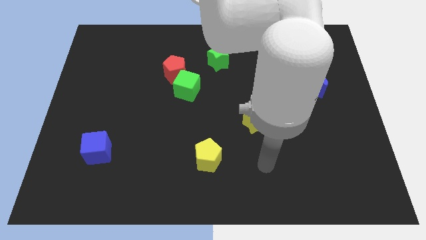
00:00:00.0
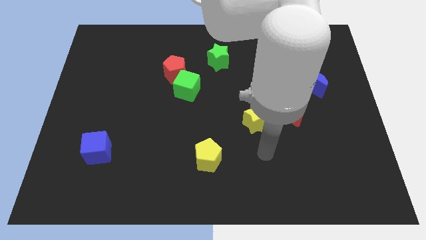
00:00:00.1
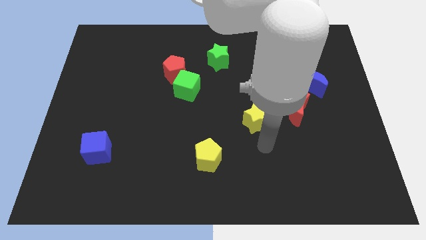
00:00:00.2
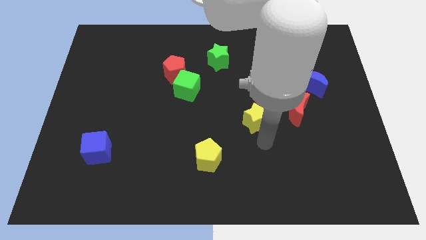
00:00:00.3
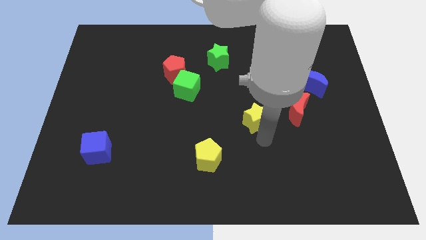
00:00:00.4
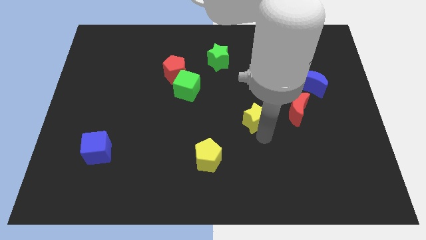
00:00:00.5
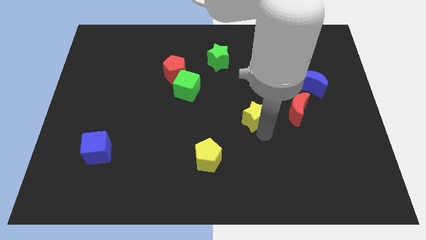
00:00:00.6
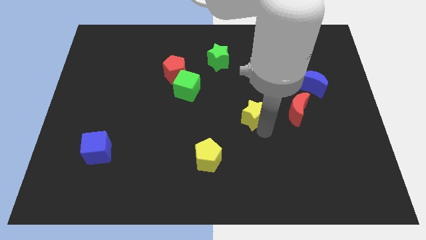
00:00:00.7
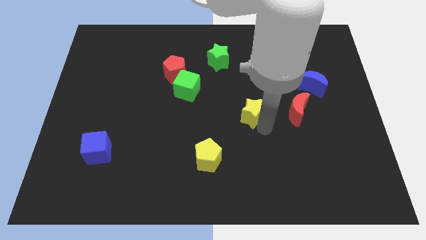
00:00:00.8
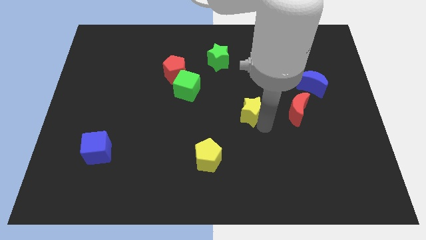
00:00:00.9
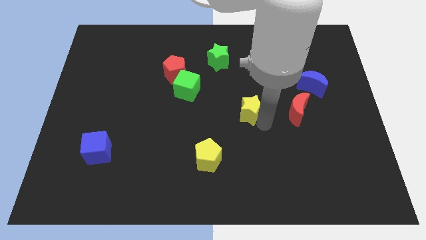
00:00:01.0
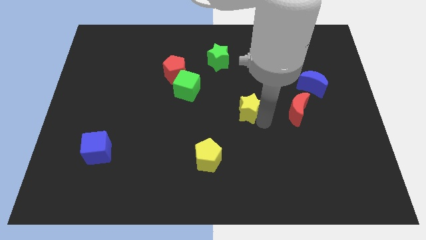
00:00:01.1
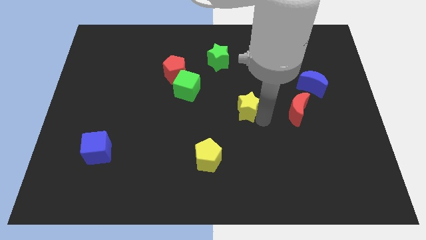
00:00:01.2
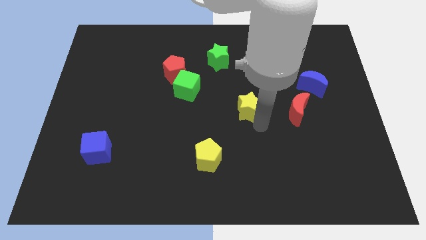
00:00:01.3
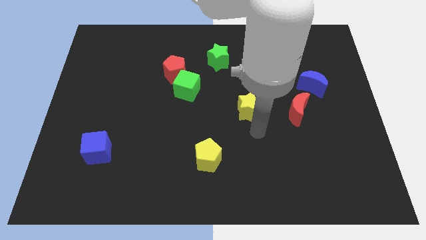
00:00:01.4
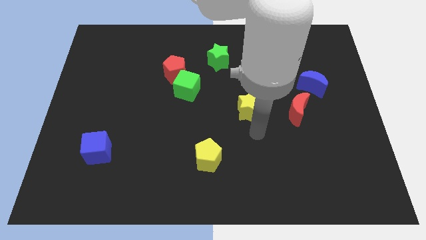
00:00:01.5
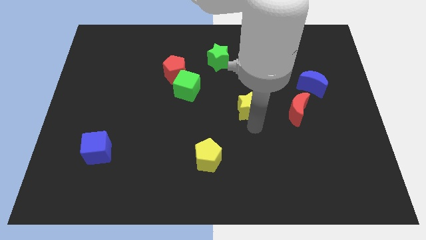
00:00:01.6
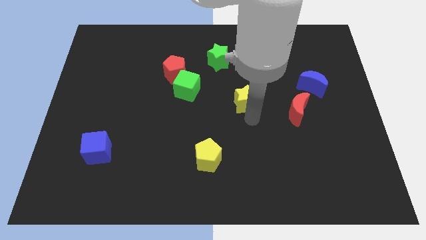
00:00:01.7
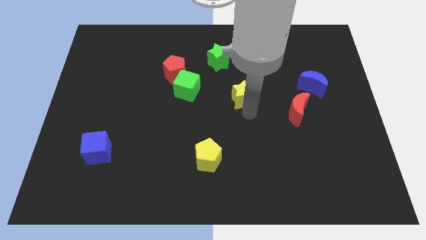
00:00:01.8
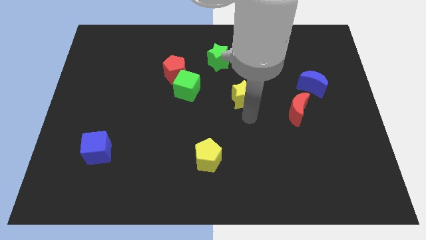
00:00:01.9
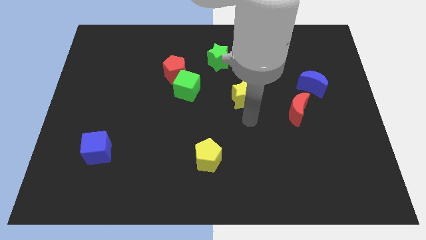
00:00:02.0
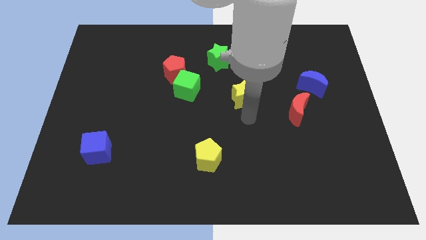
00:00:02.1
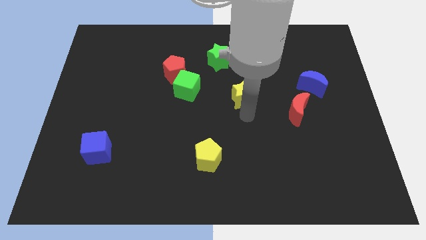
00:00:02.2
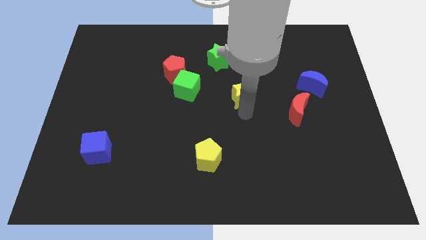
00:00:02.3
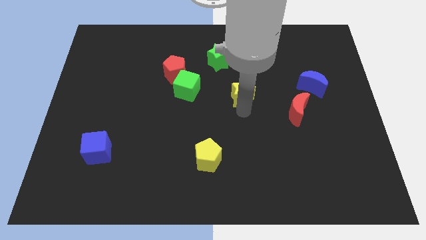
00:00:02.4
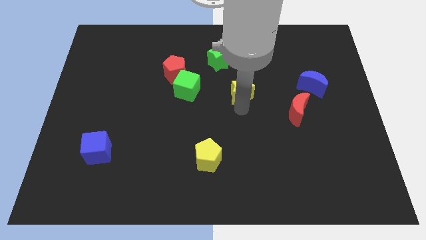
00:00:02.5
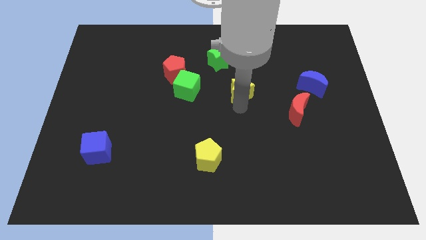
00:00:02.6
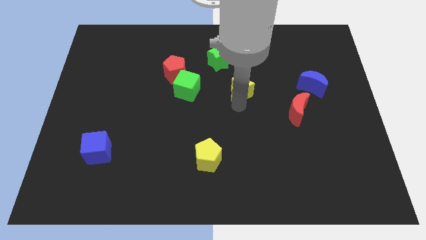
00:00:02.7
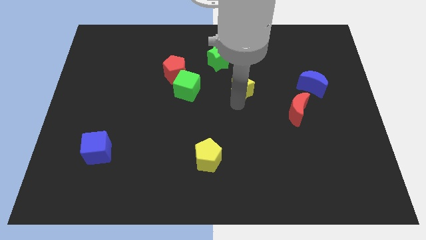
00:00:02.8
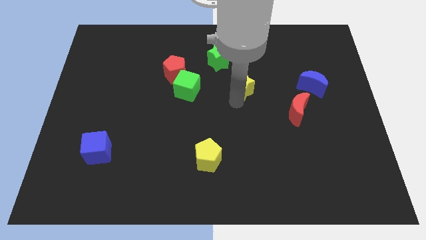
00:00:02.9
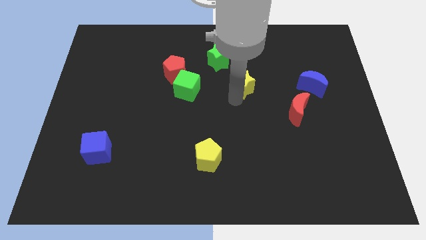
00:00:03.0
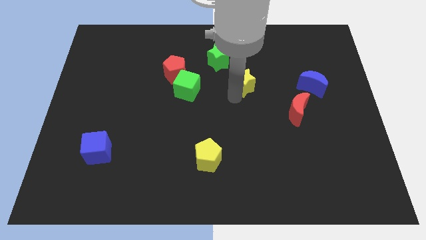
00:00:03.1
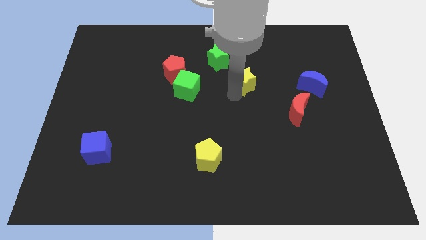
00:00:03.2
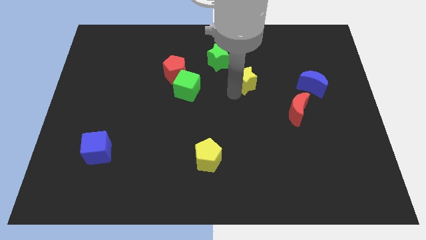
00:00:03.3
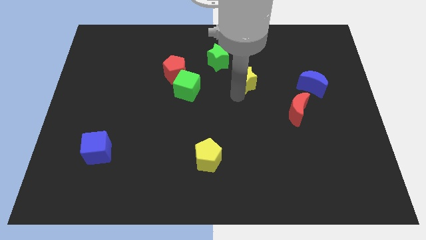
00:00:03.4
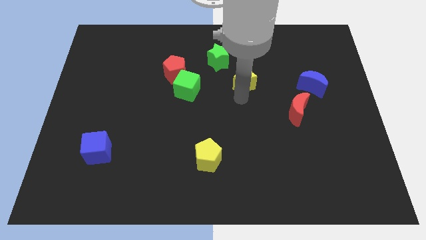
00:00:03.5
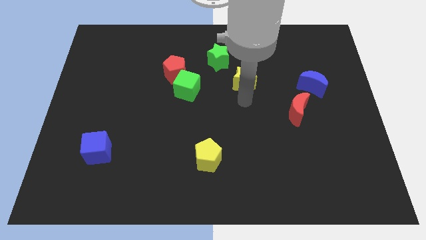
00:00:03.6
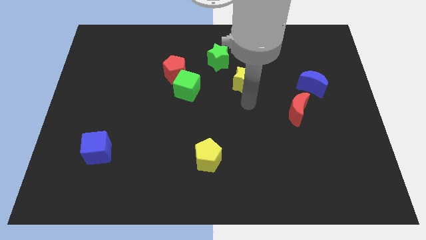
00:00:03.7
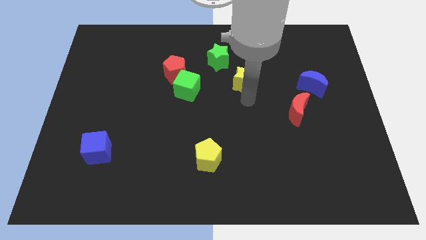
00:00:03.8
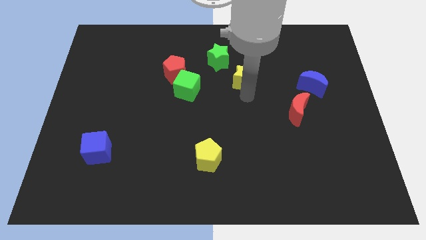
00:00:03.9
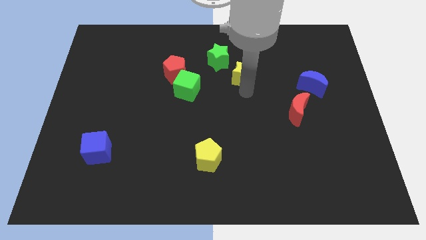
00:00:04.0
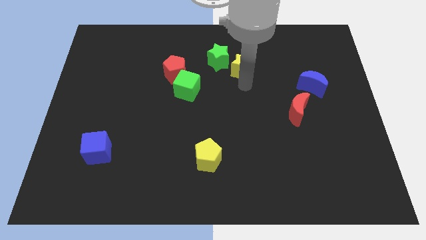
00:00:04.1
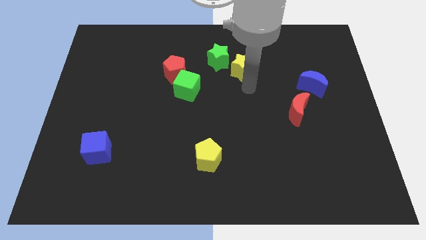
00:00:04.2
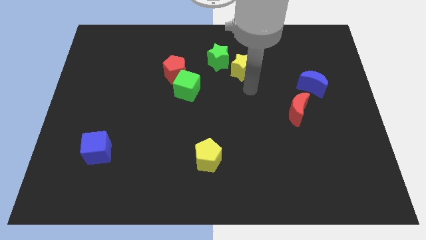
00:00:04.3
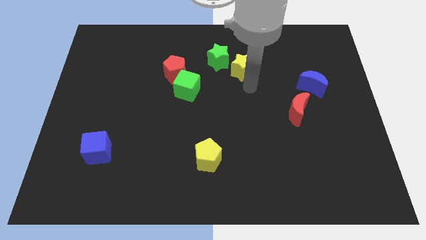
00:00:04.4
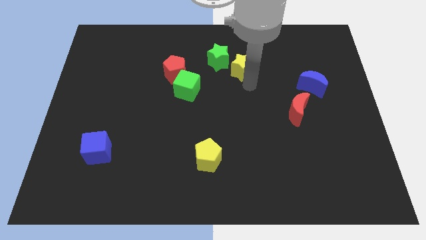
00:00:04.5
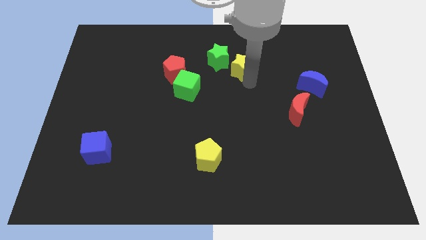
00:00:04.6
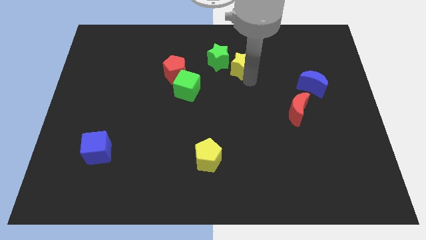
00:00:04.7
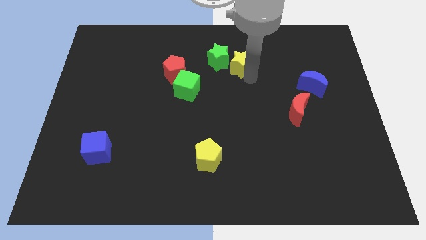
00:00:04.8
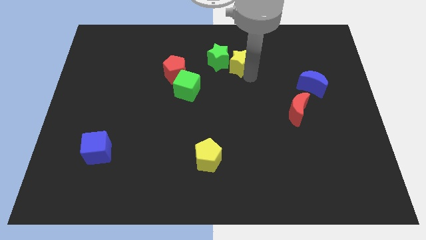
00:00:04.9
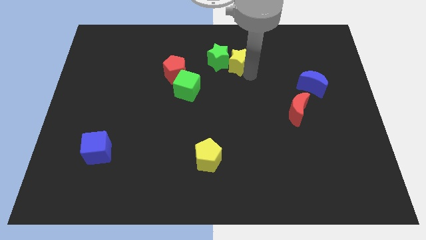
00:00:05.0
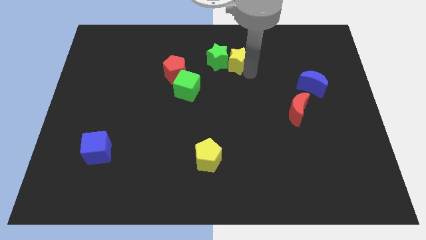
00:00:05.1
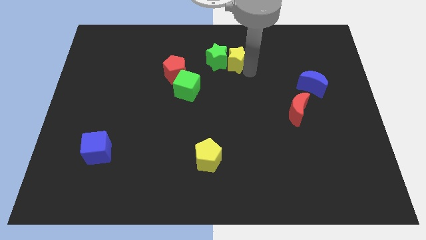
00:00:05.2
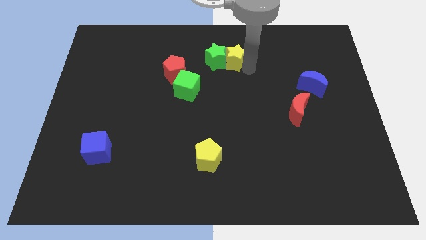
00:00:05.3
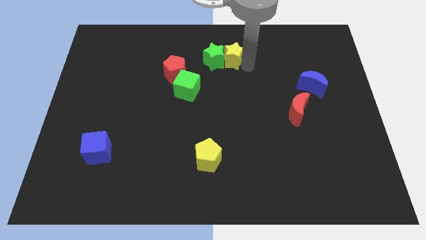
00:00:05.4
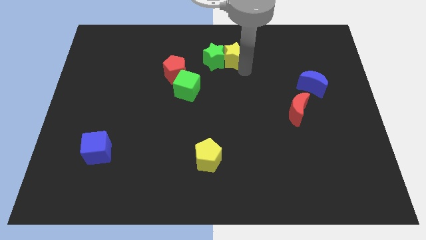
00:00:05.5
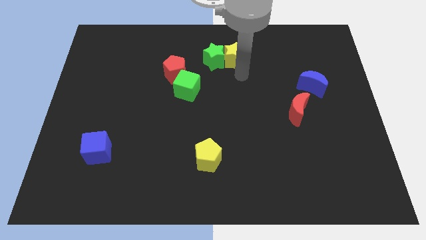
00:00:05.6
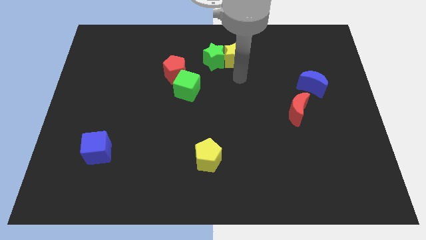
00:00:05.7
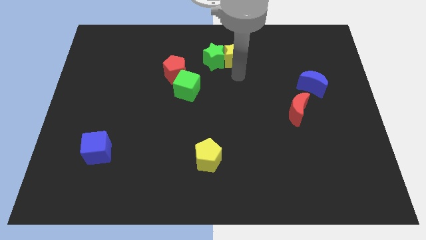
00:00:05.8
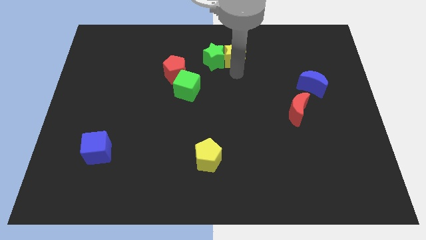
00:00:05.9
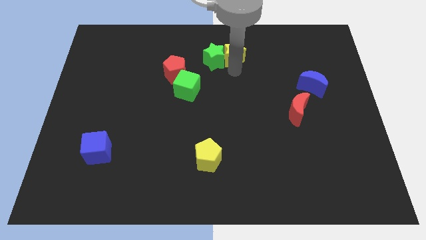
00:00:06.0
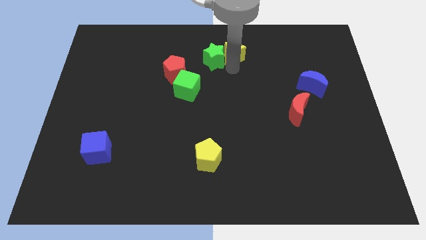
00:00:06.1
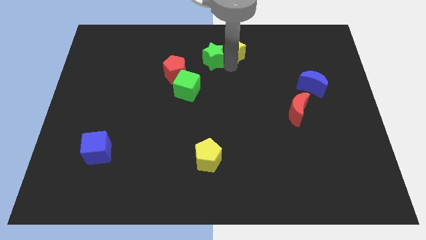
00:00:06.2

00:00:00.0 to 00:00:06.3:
put the yellow star to the top side
